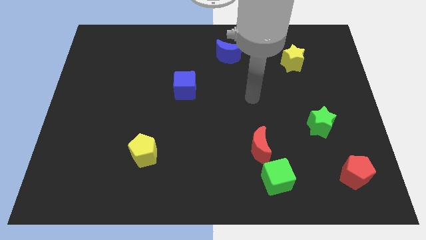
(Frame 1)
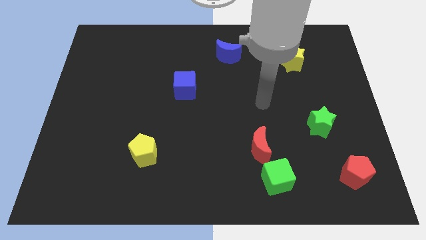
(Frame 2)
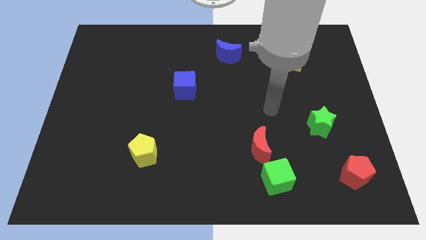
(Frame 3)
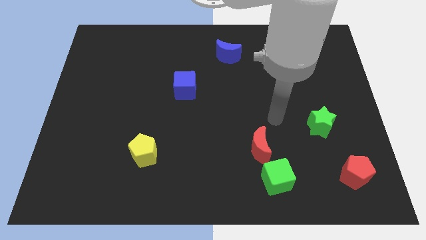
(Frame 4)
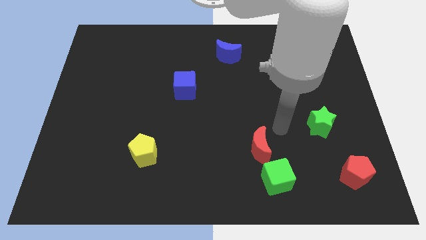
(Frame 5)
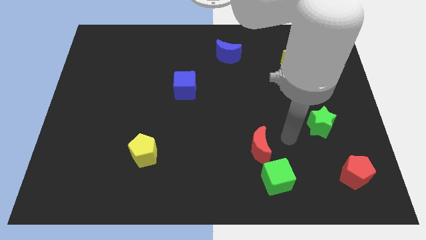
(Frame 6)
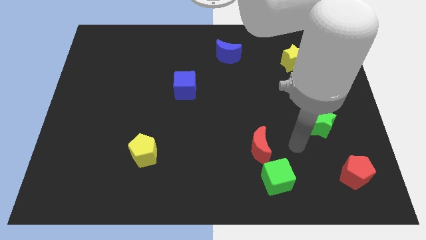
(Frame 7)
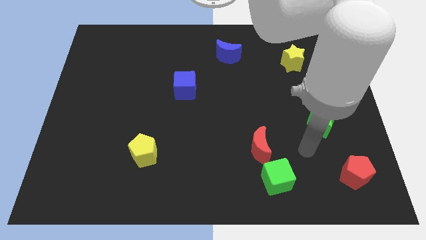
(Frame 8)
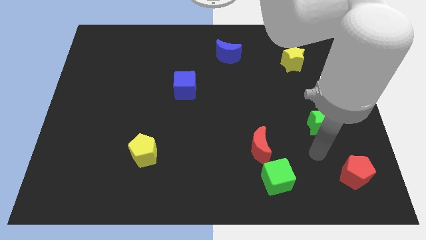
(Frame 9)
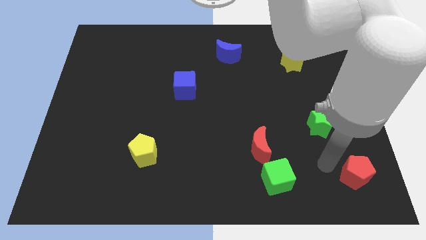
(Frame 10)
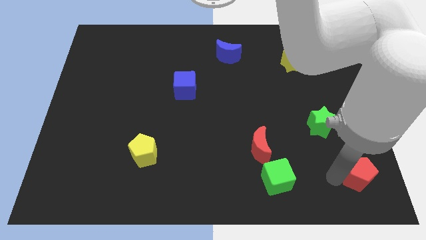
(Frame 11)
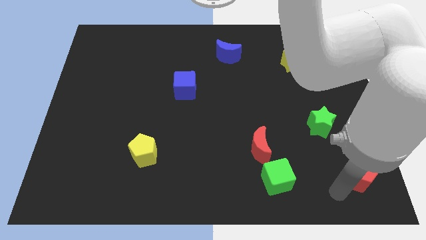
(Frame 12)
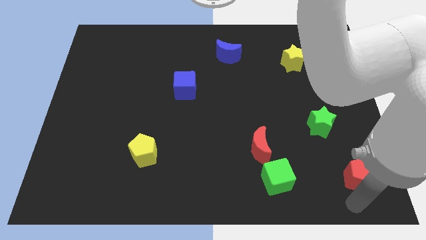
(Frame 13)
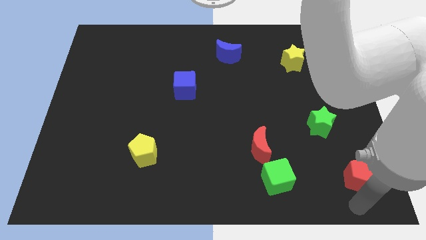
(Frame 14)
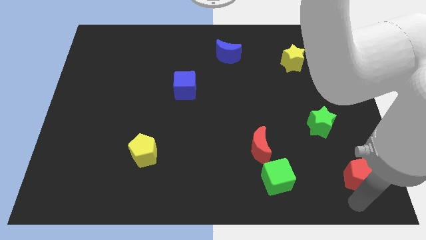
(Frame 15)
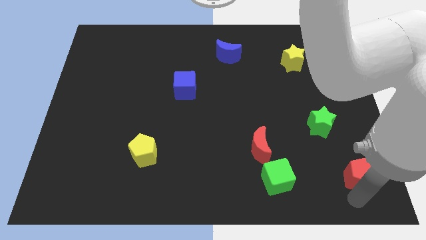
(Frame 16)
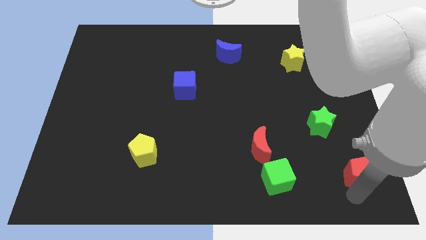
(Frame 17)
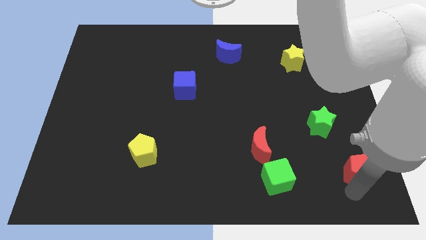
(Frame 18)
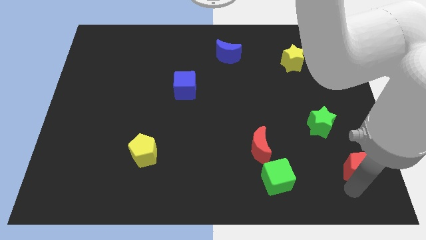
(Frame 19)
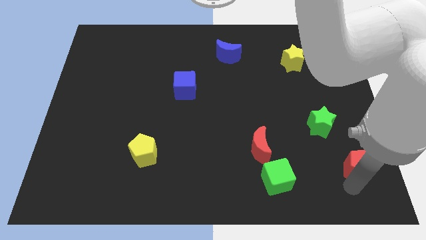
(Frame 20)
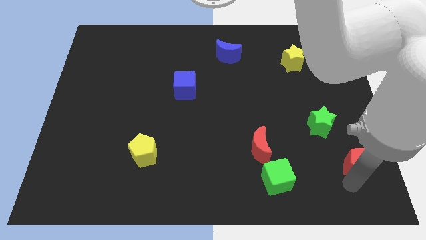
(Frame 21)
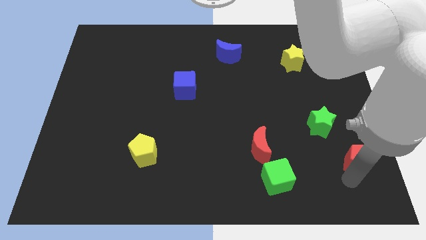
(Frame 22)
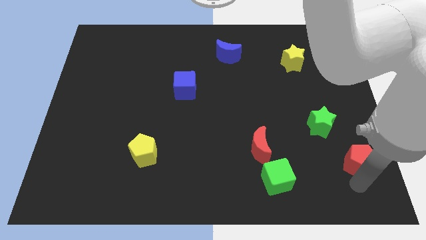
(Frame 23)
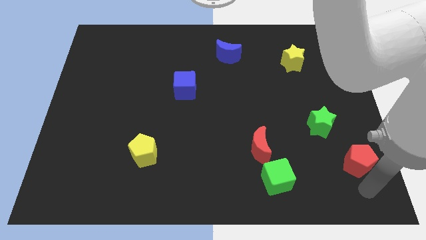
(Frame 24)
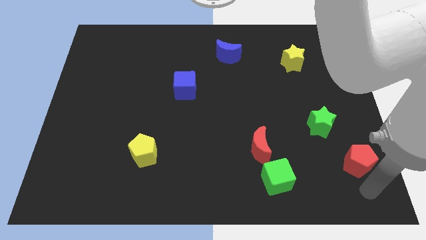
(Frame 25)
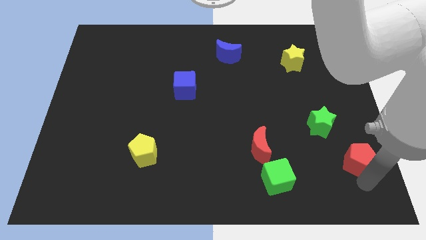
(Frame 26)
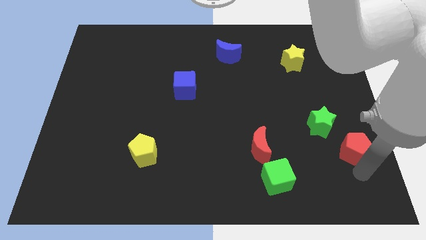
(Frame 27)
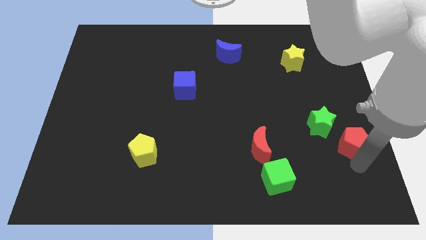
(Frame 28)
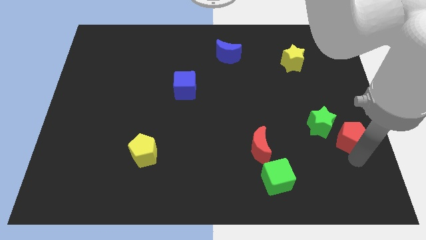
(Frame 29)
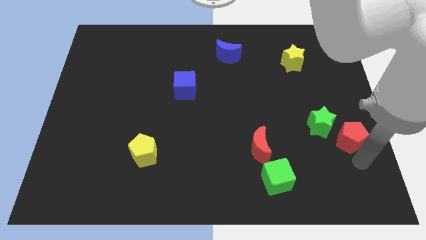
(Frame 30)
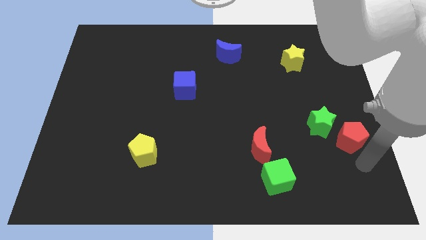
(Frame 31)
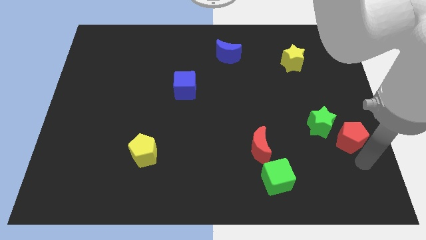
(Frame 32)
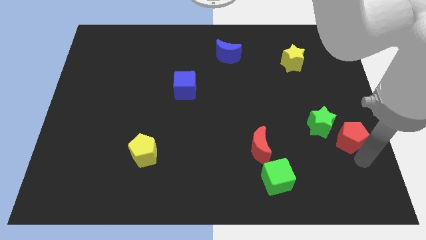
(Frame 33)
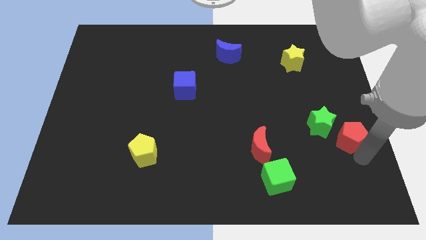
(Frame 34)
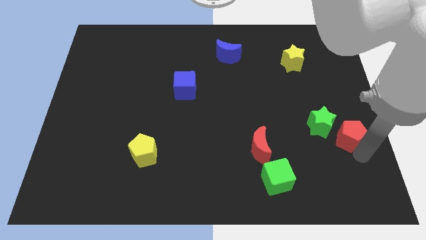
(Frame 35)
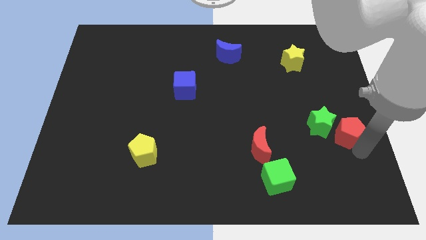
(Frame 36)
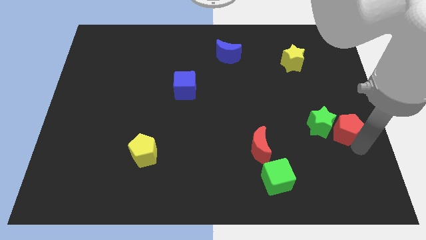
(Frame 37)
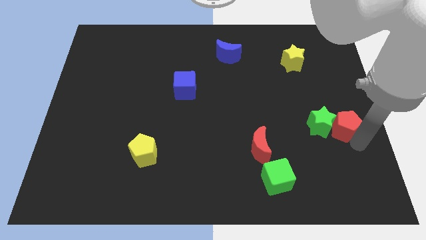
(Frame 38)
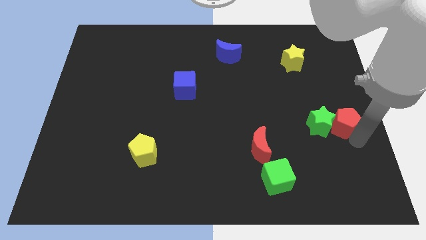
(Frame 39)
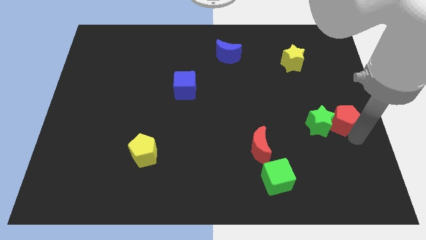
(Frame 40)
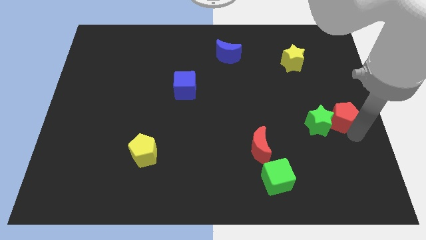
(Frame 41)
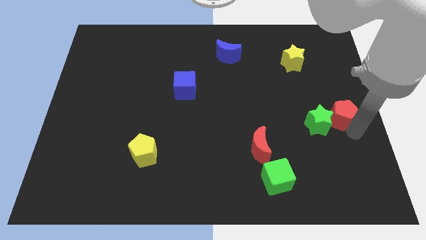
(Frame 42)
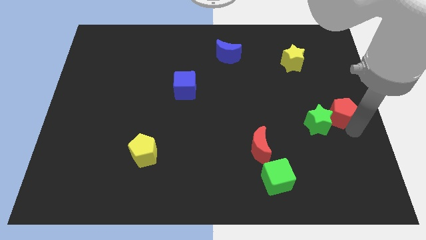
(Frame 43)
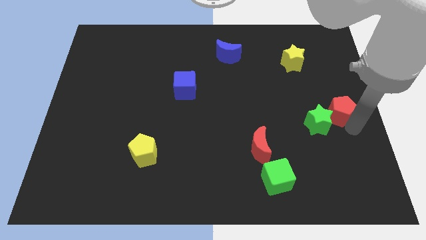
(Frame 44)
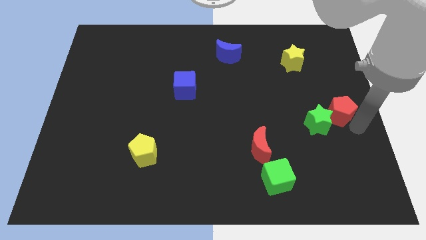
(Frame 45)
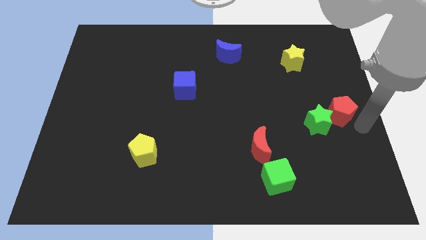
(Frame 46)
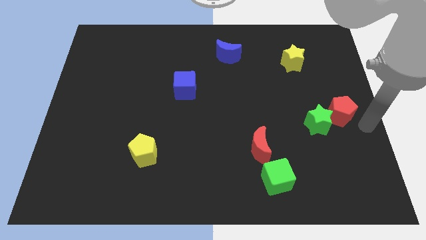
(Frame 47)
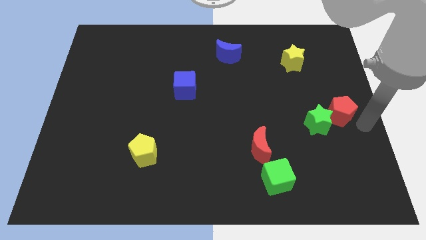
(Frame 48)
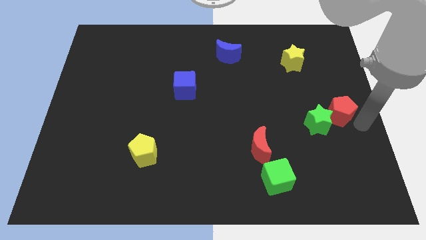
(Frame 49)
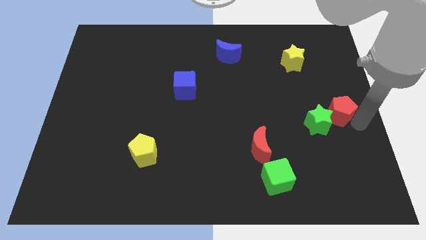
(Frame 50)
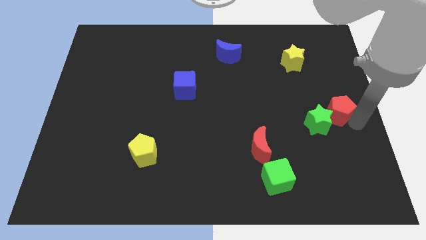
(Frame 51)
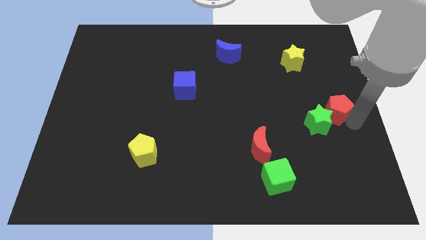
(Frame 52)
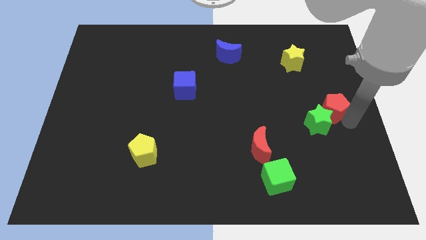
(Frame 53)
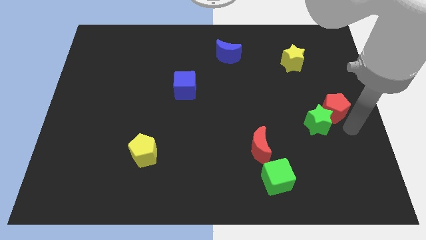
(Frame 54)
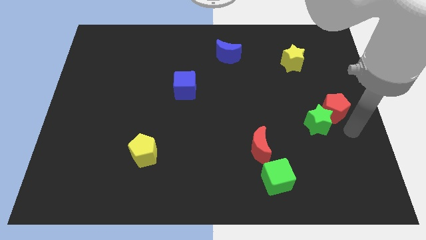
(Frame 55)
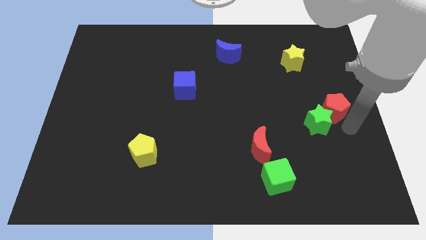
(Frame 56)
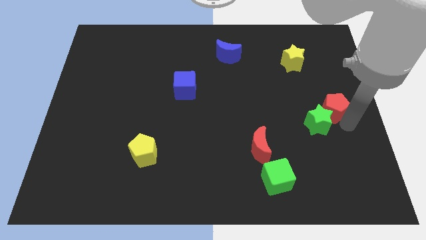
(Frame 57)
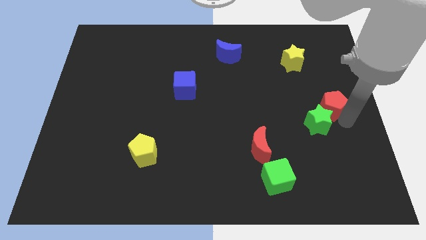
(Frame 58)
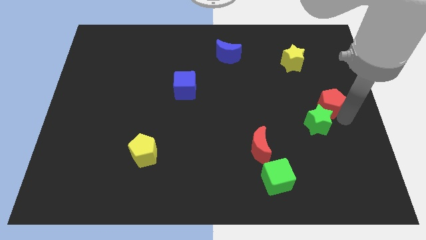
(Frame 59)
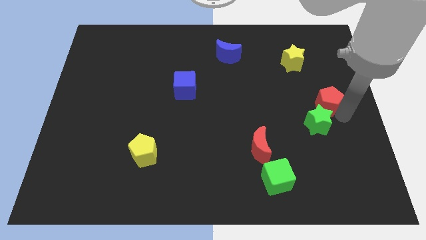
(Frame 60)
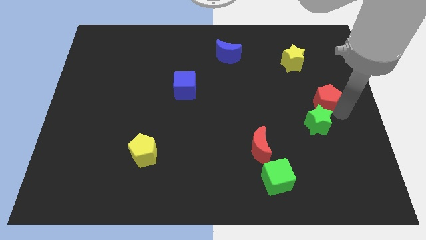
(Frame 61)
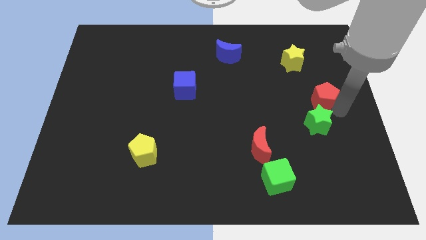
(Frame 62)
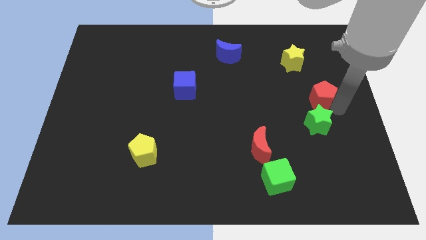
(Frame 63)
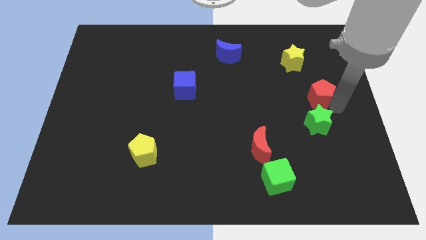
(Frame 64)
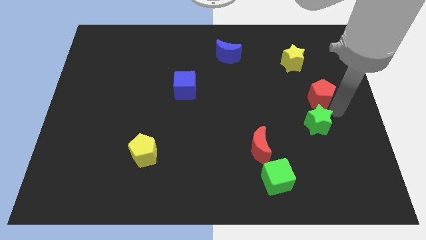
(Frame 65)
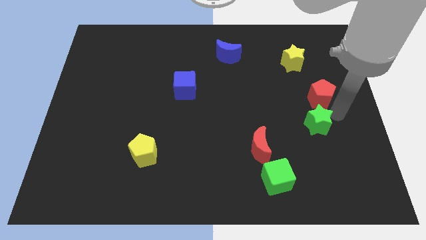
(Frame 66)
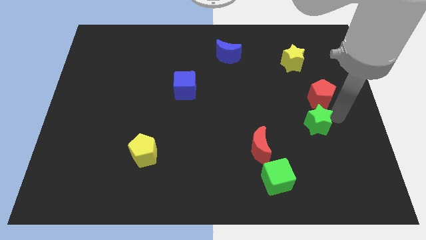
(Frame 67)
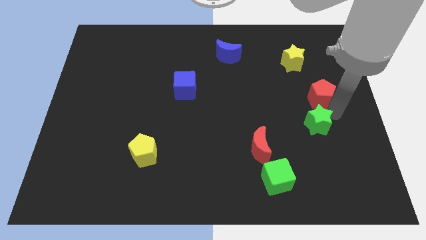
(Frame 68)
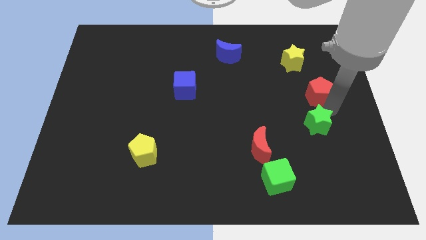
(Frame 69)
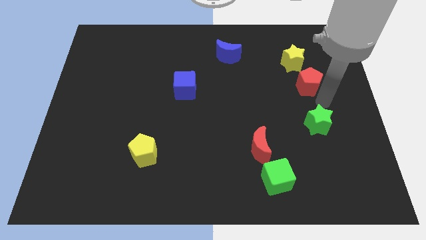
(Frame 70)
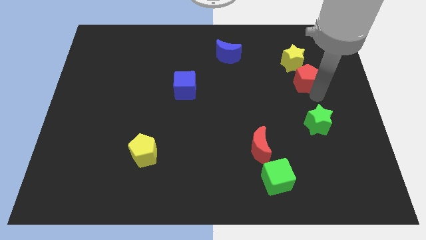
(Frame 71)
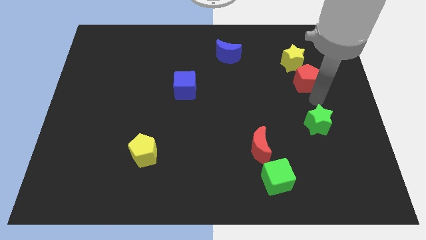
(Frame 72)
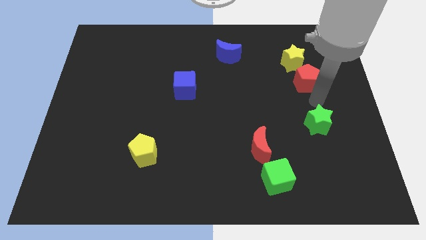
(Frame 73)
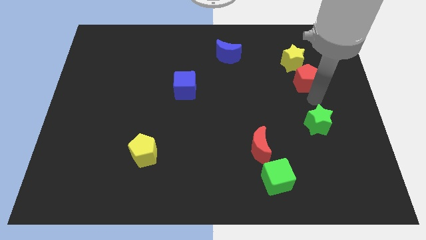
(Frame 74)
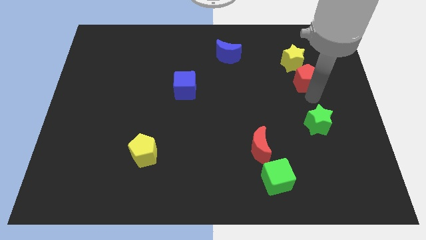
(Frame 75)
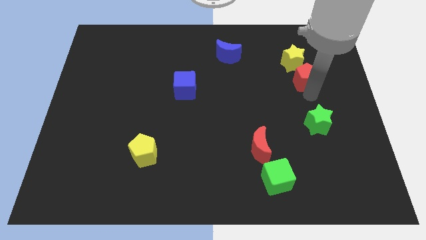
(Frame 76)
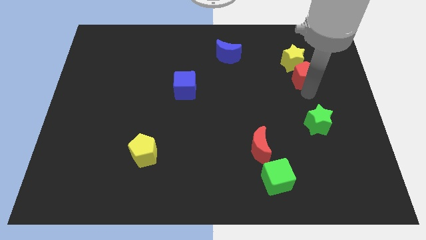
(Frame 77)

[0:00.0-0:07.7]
push the red pentagon close to the yellow star
